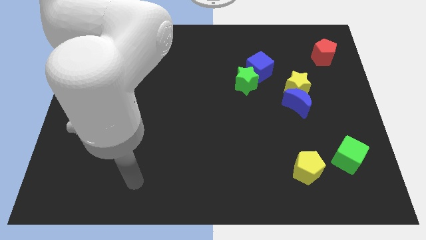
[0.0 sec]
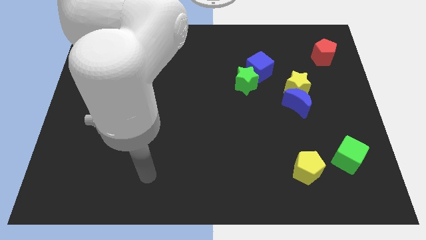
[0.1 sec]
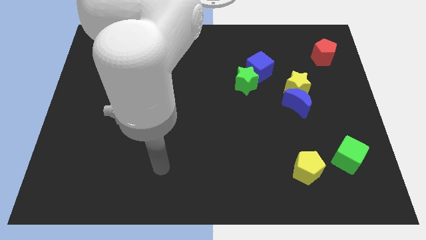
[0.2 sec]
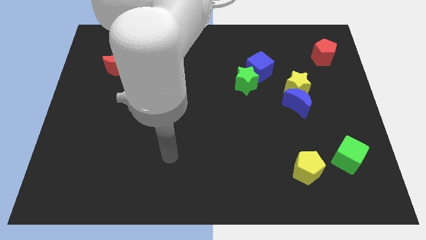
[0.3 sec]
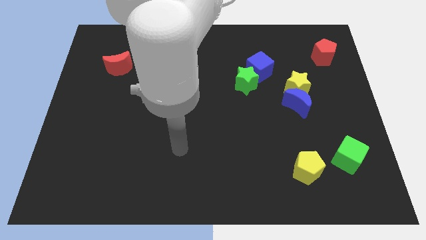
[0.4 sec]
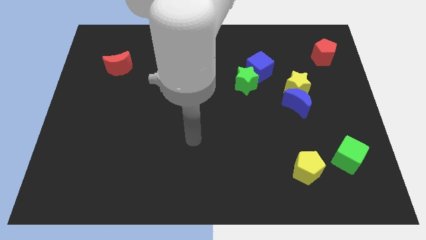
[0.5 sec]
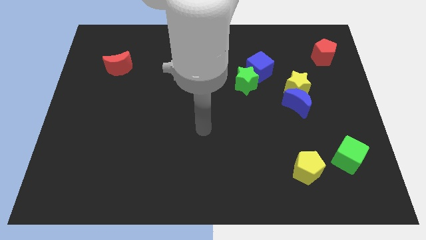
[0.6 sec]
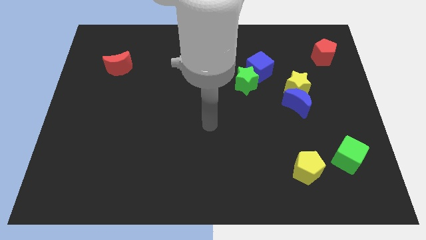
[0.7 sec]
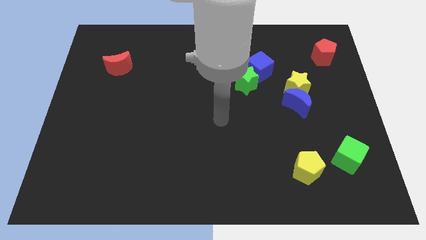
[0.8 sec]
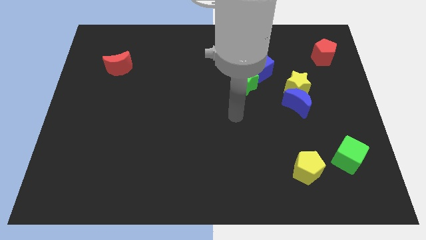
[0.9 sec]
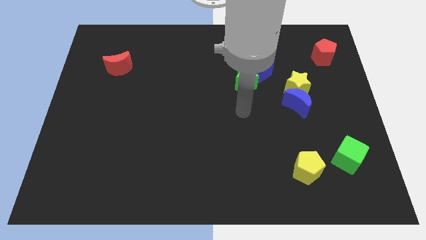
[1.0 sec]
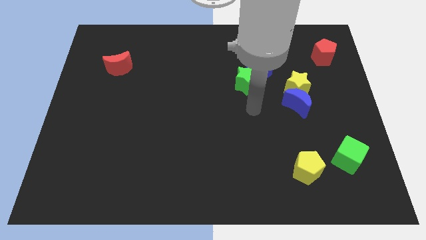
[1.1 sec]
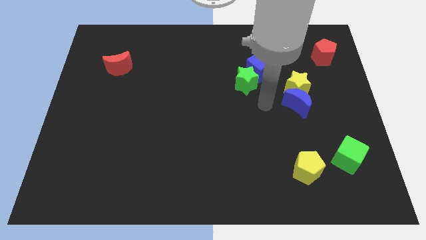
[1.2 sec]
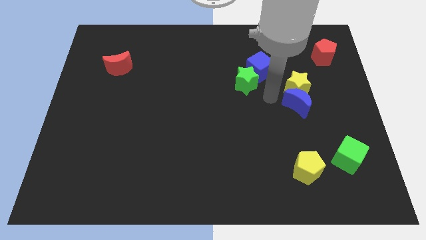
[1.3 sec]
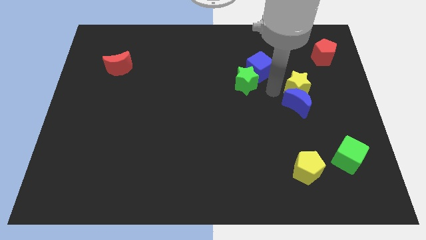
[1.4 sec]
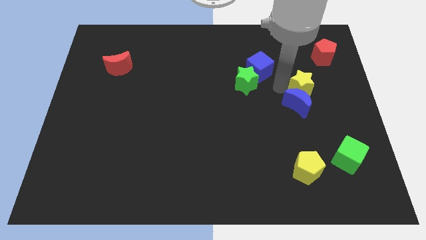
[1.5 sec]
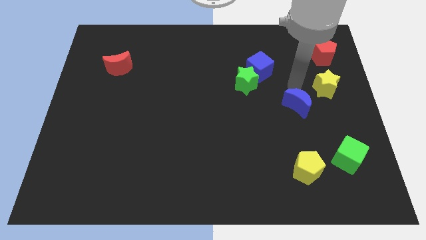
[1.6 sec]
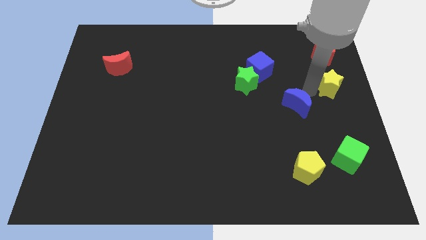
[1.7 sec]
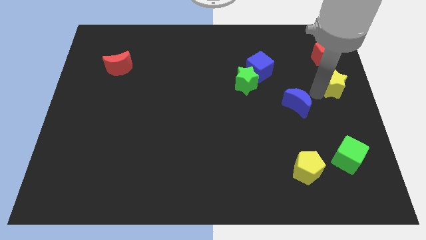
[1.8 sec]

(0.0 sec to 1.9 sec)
move the blue moon away from the yellow star

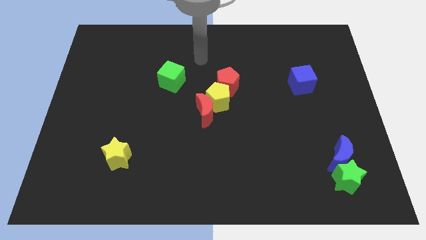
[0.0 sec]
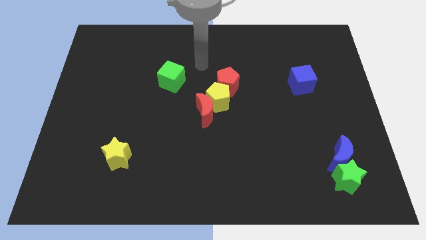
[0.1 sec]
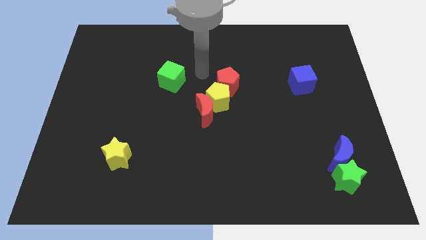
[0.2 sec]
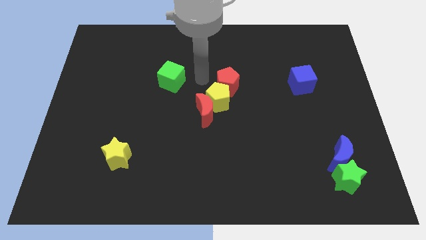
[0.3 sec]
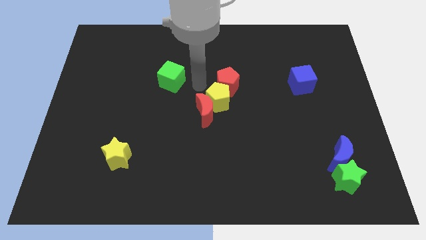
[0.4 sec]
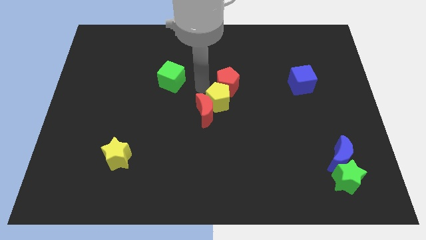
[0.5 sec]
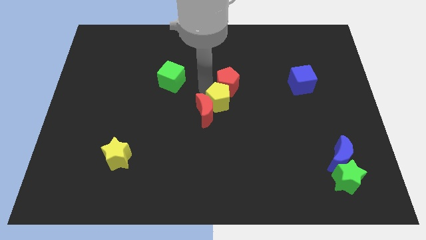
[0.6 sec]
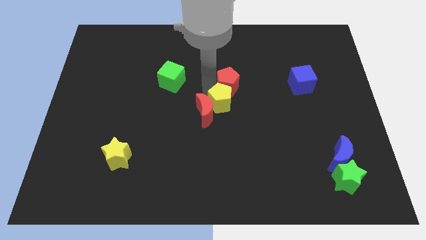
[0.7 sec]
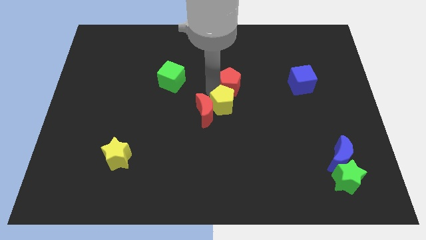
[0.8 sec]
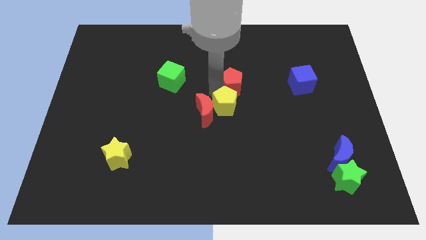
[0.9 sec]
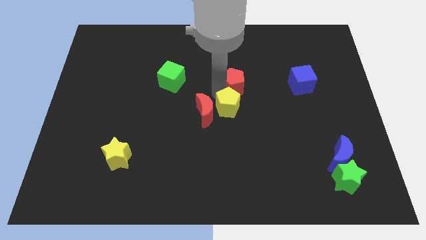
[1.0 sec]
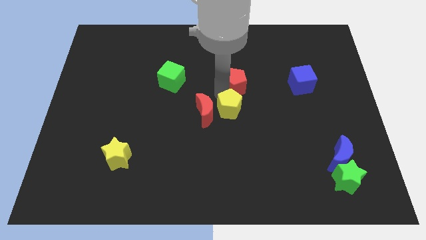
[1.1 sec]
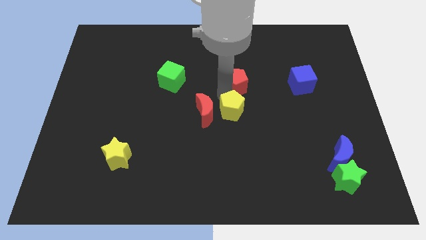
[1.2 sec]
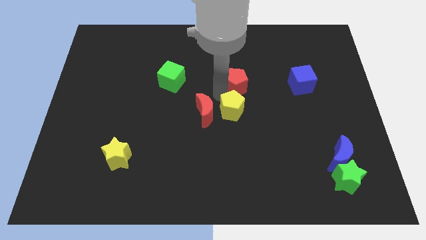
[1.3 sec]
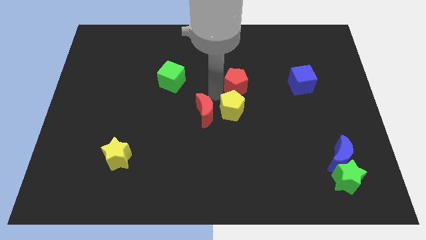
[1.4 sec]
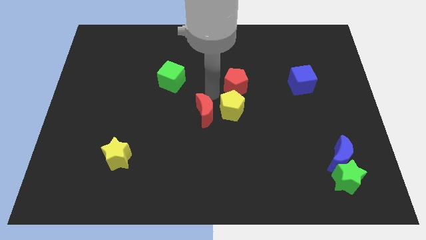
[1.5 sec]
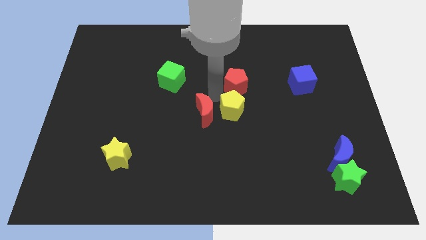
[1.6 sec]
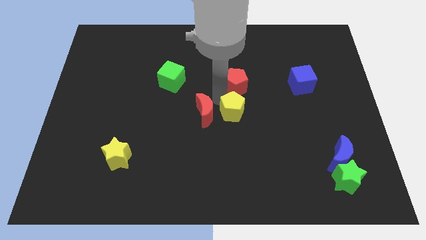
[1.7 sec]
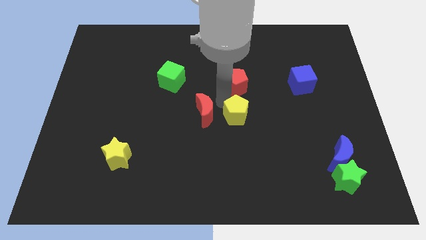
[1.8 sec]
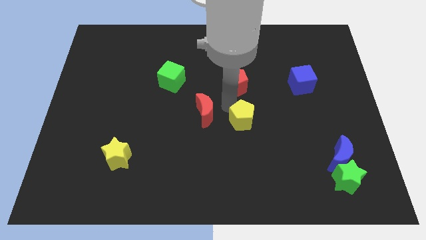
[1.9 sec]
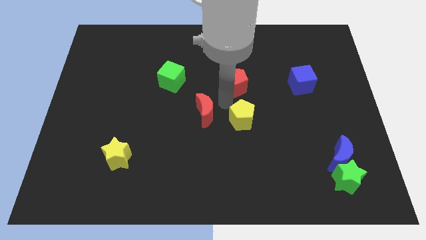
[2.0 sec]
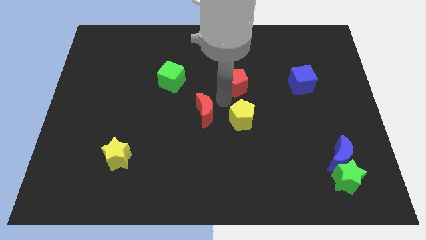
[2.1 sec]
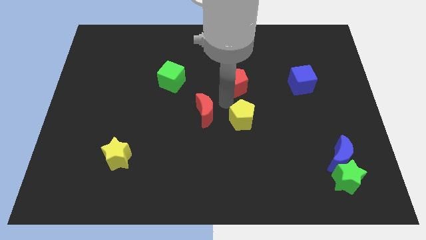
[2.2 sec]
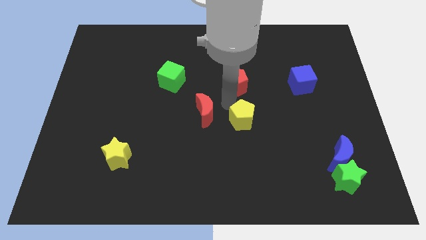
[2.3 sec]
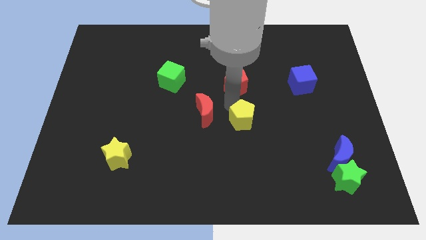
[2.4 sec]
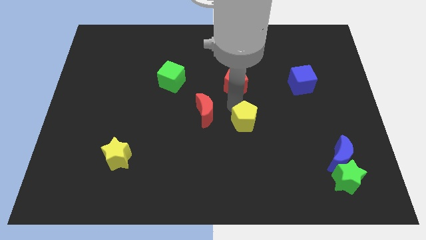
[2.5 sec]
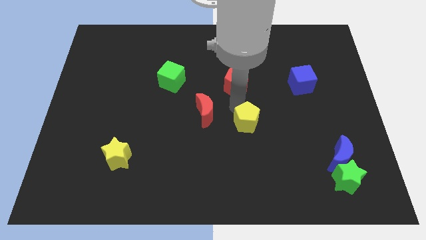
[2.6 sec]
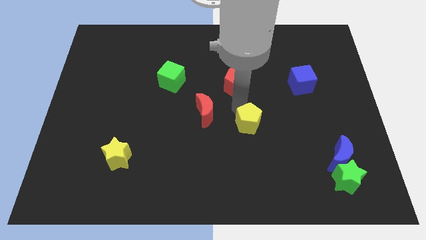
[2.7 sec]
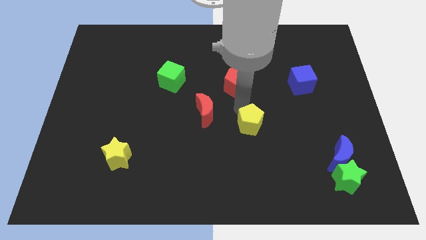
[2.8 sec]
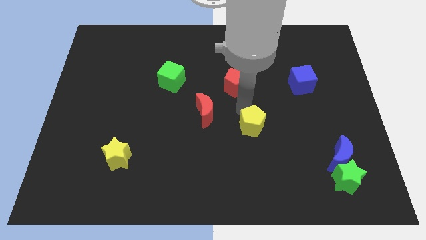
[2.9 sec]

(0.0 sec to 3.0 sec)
pull the yellow pentagon apart from the red moon and red pentagon

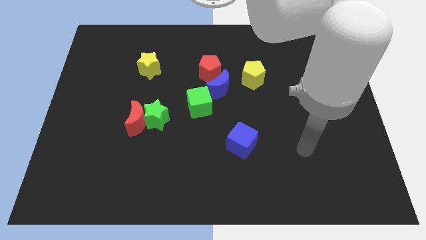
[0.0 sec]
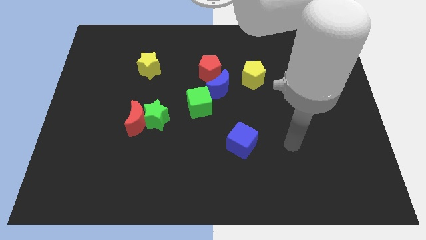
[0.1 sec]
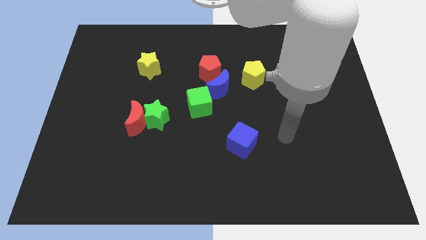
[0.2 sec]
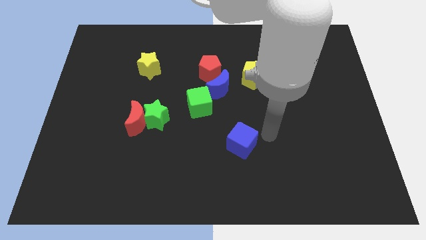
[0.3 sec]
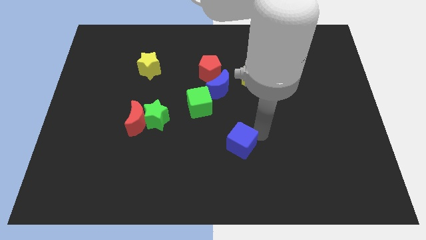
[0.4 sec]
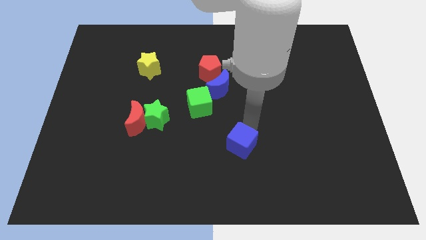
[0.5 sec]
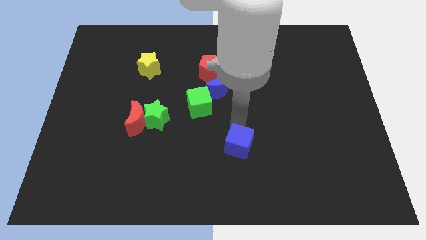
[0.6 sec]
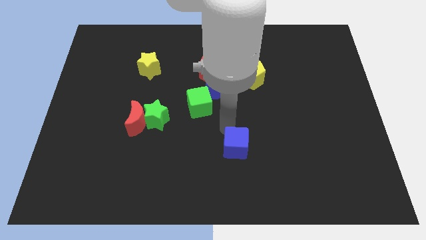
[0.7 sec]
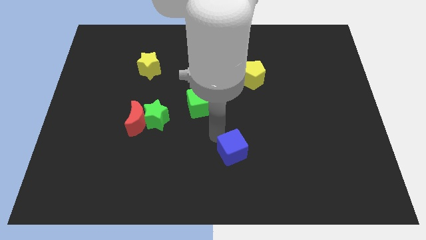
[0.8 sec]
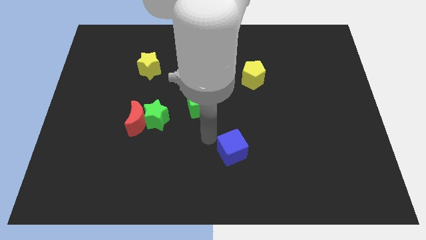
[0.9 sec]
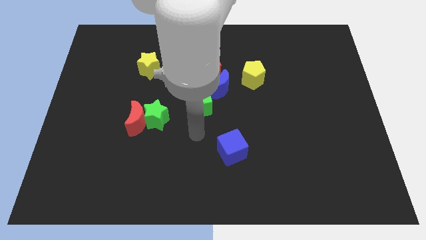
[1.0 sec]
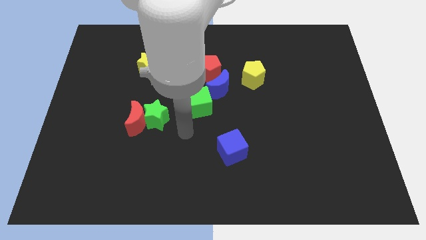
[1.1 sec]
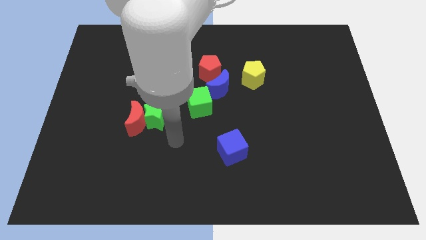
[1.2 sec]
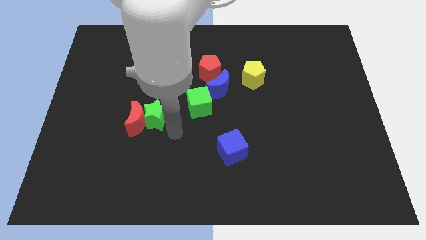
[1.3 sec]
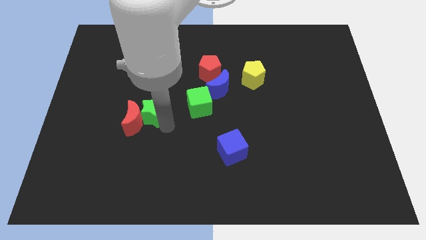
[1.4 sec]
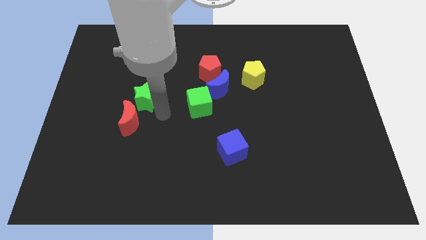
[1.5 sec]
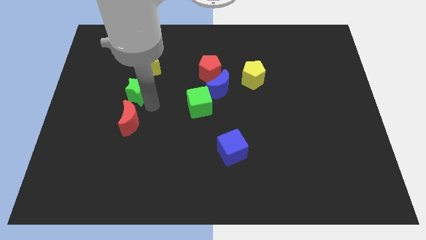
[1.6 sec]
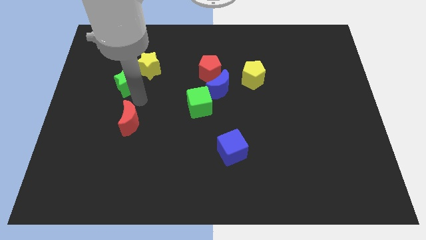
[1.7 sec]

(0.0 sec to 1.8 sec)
separate the red moon from the green star

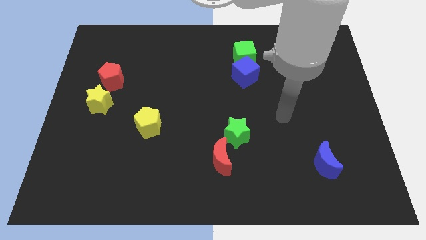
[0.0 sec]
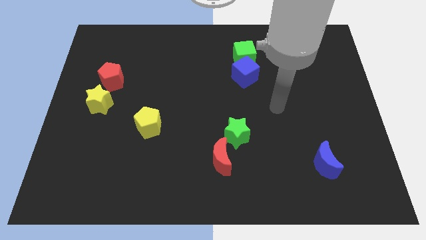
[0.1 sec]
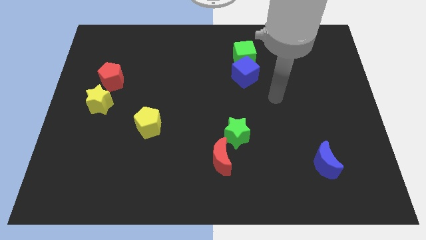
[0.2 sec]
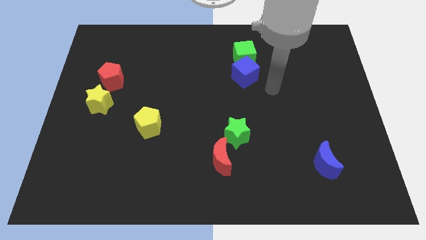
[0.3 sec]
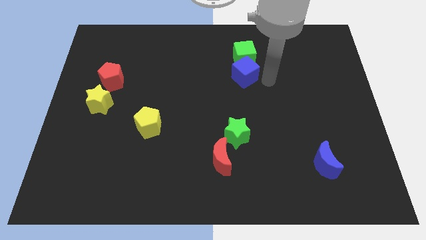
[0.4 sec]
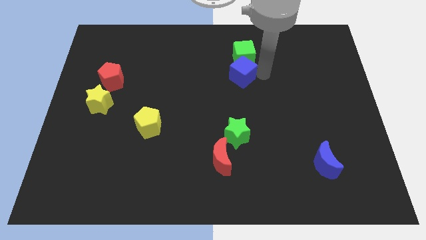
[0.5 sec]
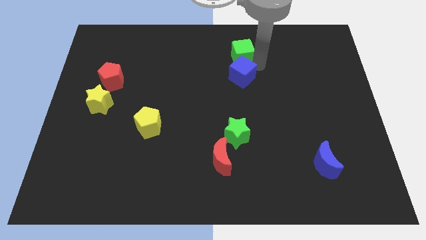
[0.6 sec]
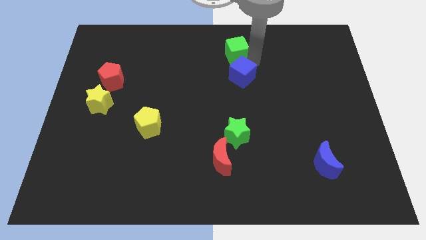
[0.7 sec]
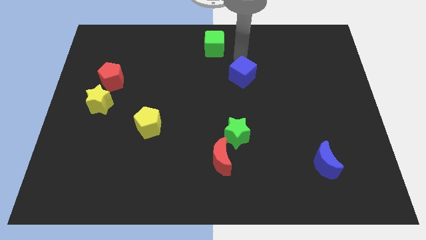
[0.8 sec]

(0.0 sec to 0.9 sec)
pull the blue cube apart from the green cube

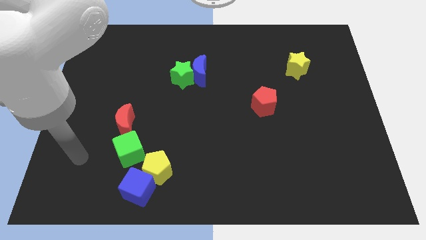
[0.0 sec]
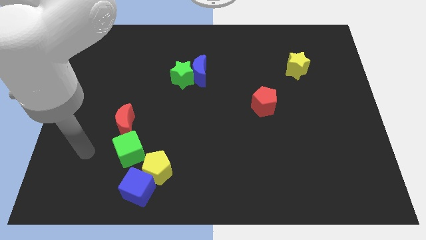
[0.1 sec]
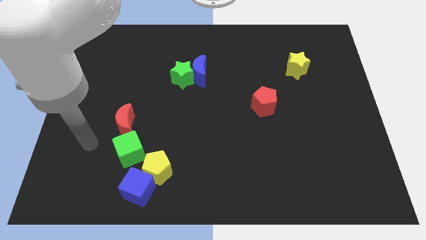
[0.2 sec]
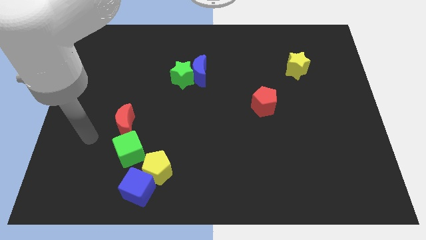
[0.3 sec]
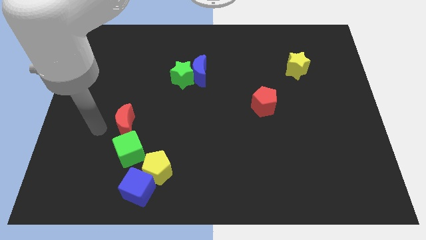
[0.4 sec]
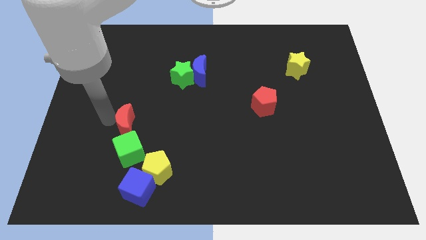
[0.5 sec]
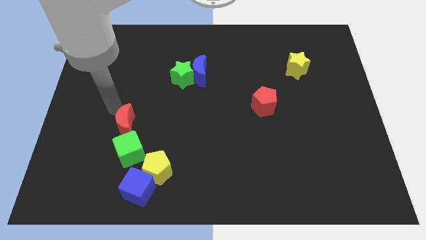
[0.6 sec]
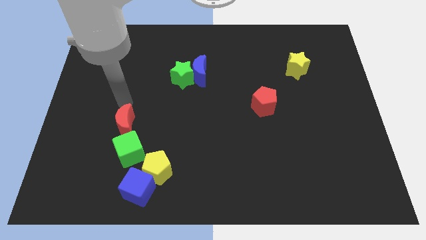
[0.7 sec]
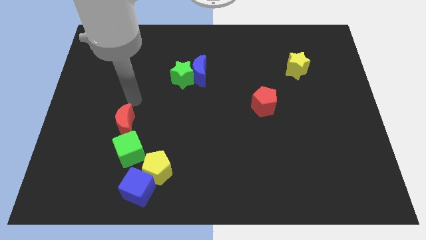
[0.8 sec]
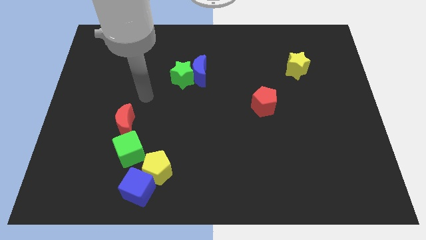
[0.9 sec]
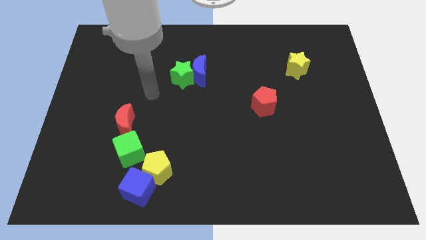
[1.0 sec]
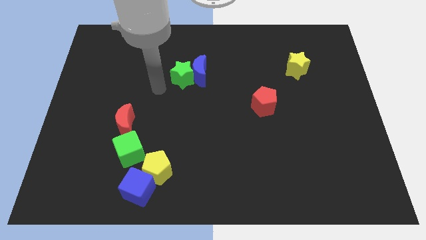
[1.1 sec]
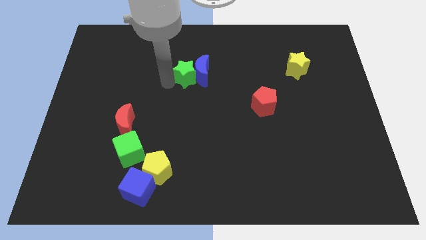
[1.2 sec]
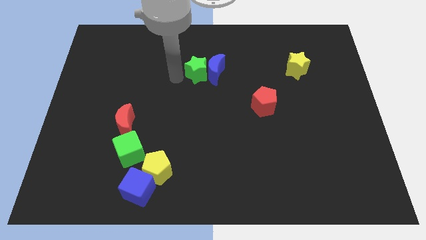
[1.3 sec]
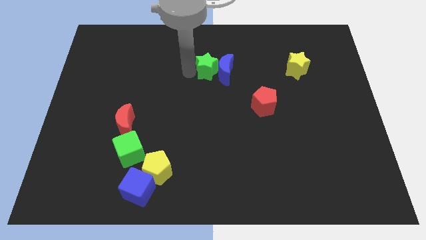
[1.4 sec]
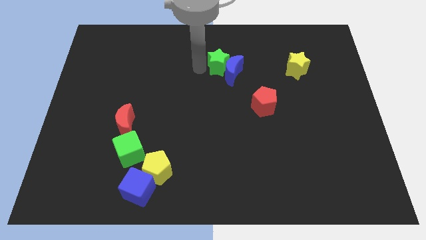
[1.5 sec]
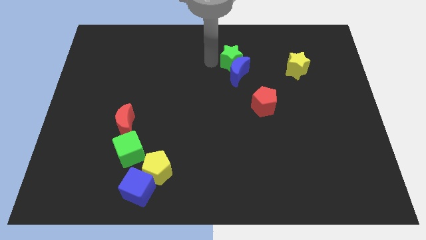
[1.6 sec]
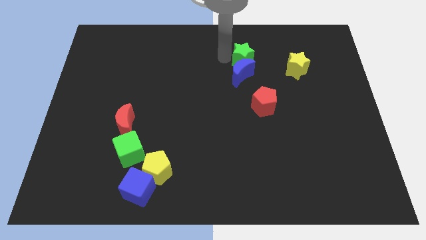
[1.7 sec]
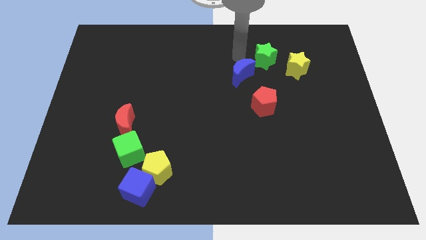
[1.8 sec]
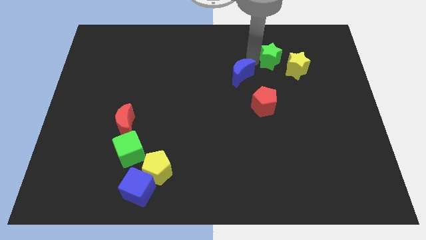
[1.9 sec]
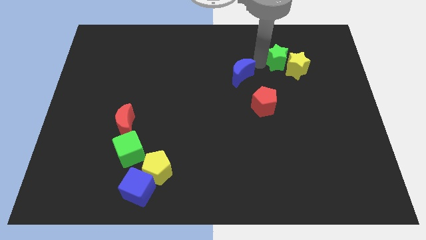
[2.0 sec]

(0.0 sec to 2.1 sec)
separate the blue moon from the green star
